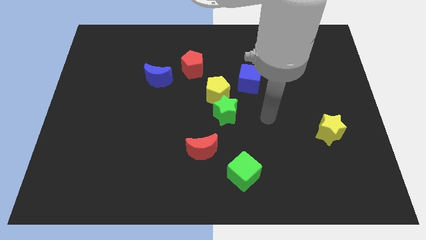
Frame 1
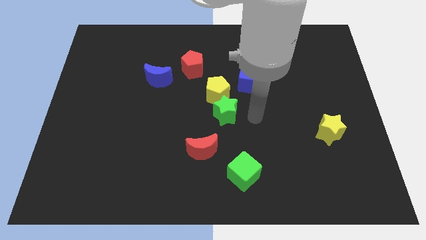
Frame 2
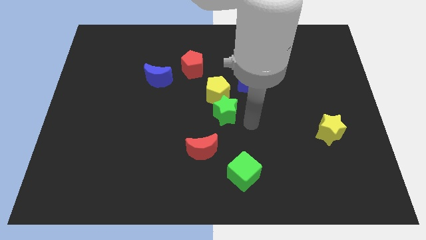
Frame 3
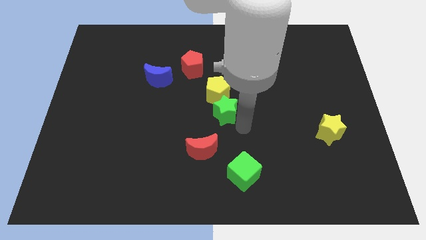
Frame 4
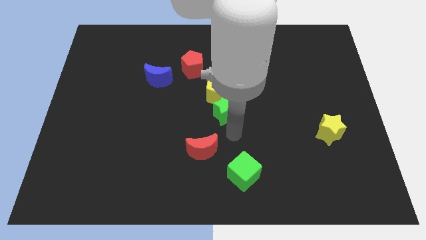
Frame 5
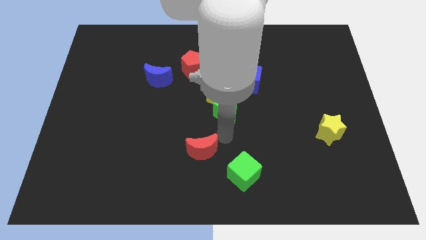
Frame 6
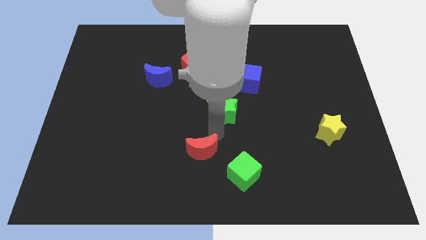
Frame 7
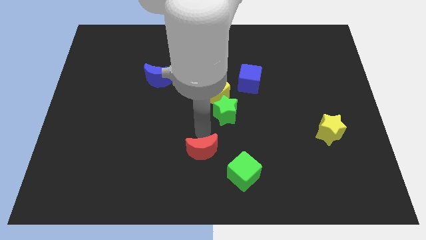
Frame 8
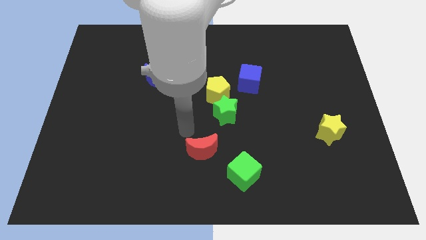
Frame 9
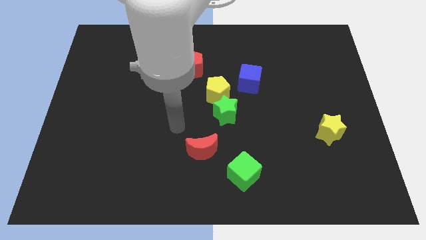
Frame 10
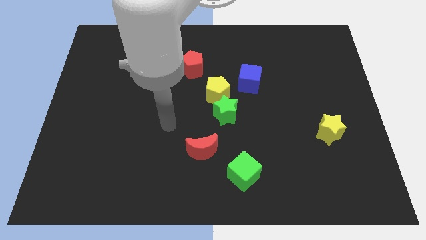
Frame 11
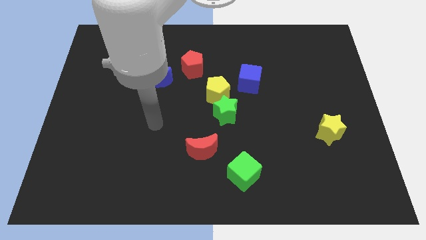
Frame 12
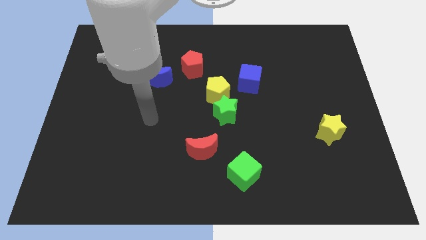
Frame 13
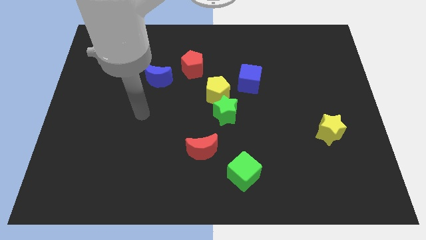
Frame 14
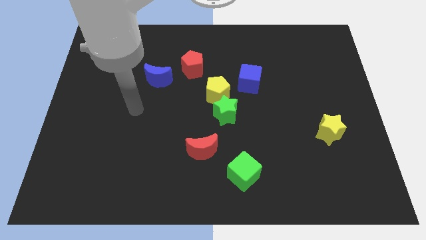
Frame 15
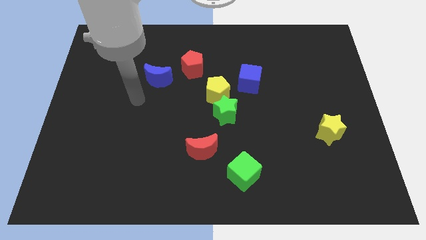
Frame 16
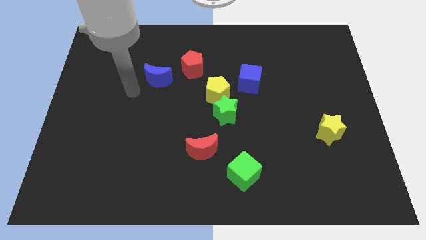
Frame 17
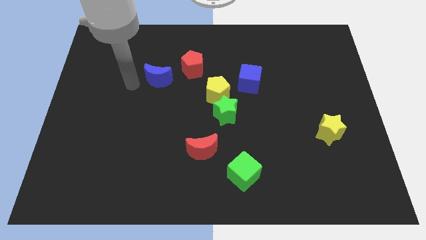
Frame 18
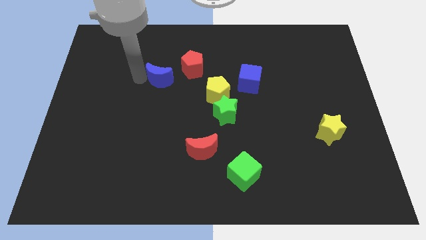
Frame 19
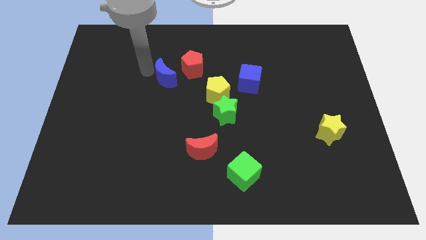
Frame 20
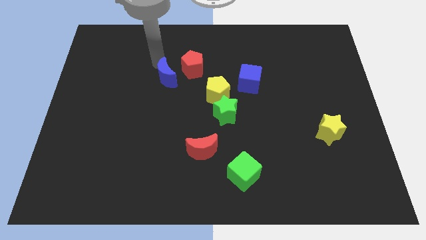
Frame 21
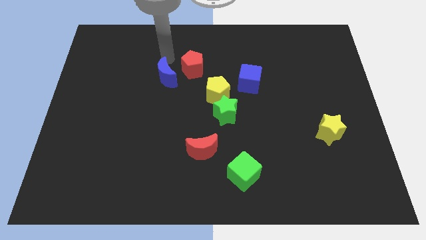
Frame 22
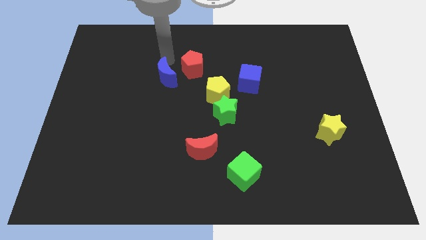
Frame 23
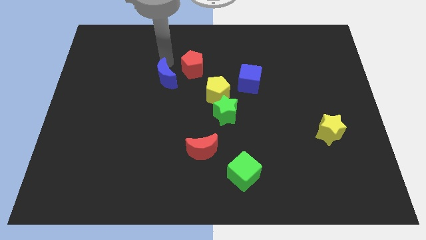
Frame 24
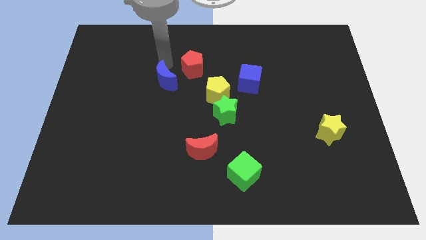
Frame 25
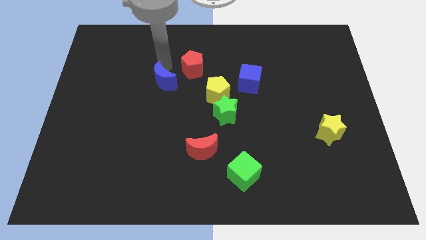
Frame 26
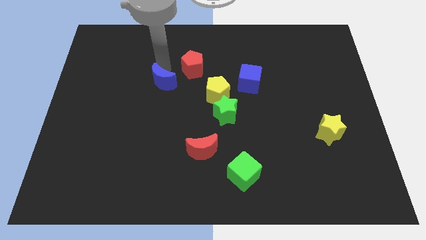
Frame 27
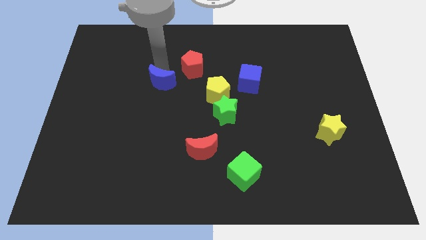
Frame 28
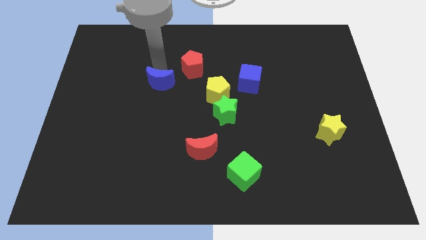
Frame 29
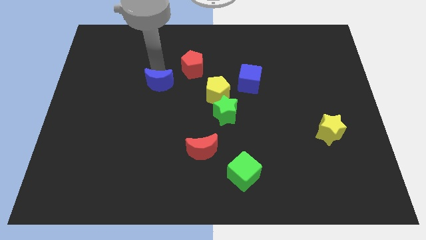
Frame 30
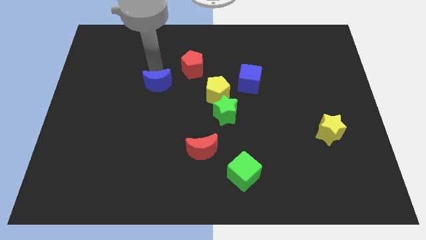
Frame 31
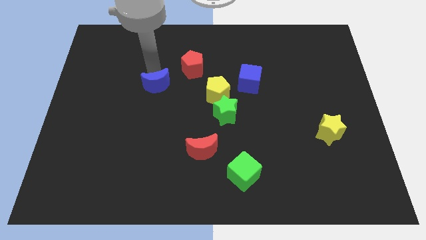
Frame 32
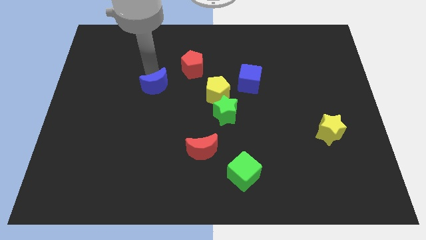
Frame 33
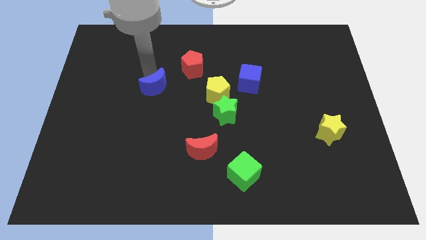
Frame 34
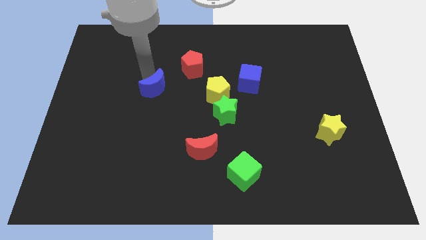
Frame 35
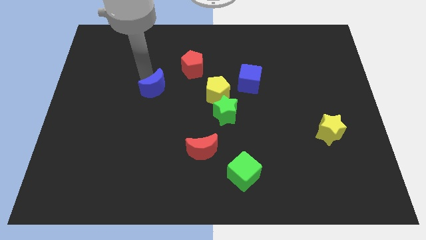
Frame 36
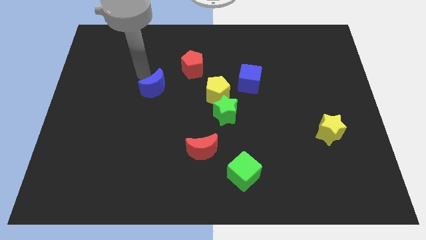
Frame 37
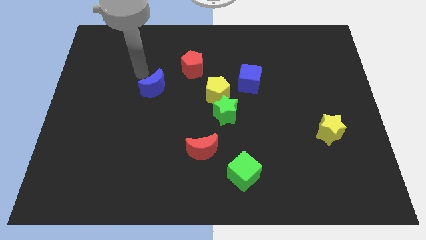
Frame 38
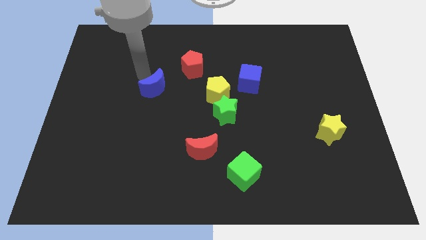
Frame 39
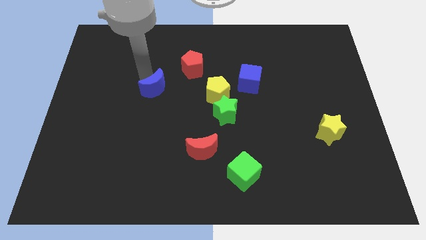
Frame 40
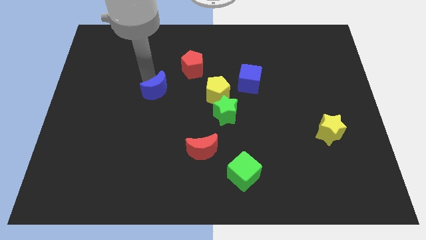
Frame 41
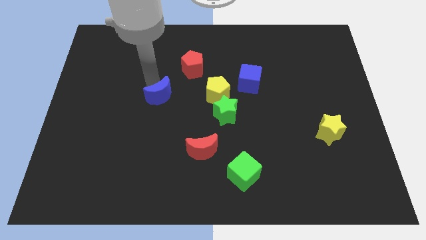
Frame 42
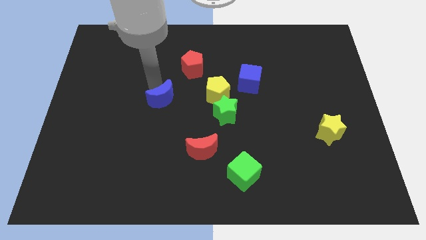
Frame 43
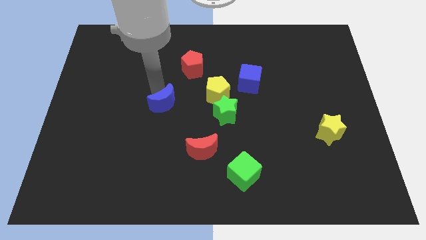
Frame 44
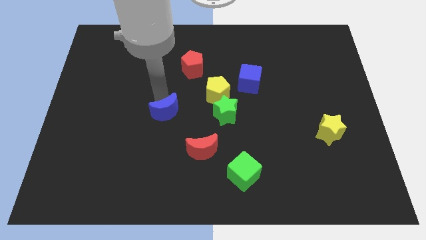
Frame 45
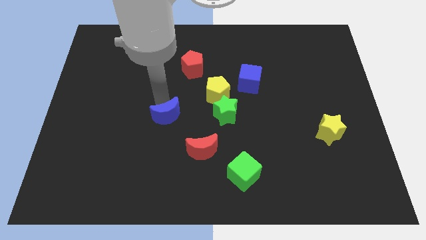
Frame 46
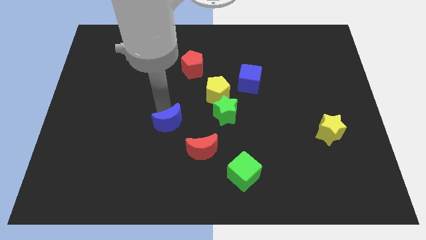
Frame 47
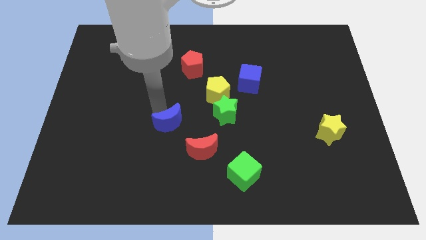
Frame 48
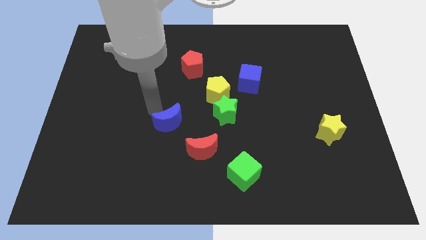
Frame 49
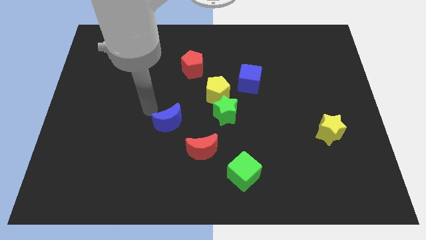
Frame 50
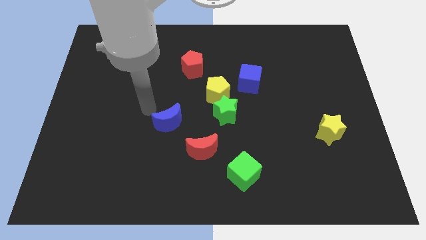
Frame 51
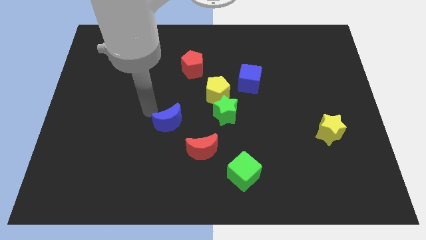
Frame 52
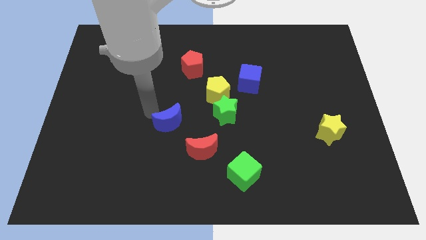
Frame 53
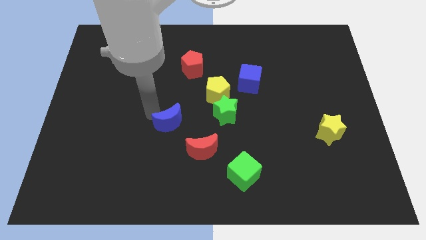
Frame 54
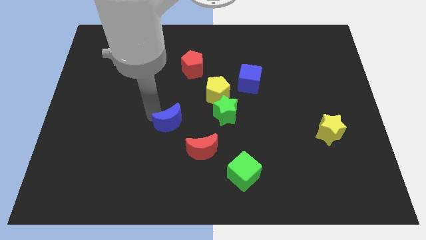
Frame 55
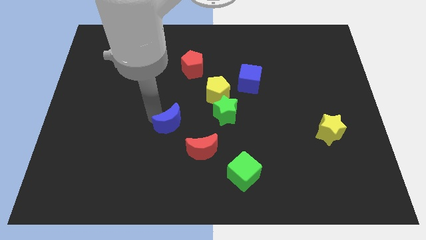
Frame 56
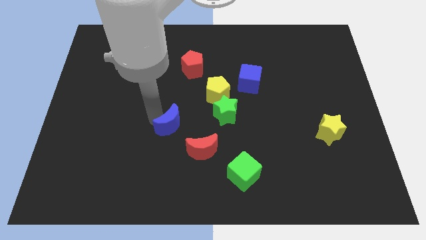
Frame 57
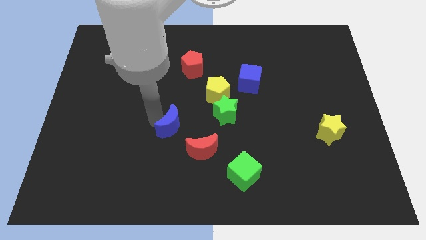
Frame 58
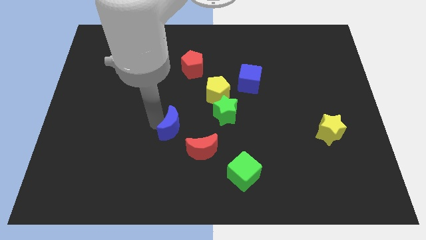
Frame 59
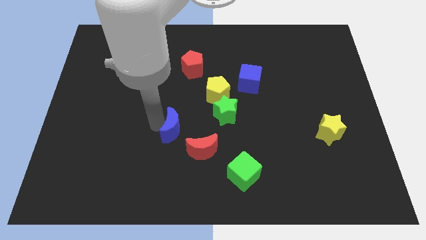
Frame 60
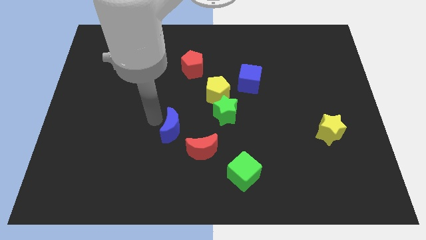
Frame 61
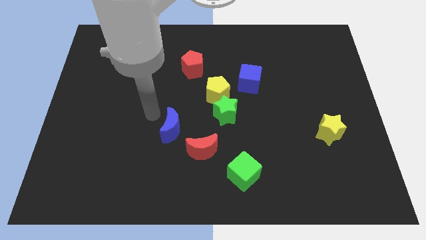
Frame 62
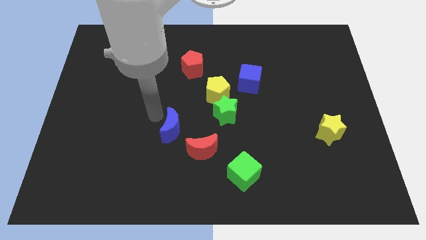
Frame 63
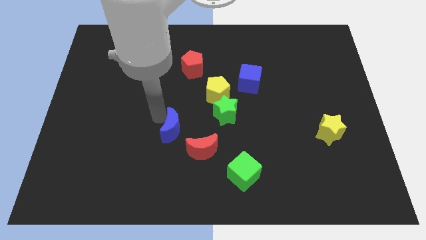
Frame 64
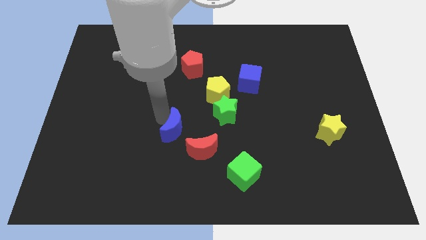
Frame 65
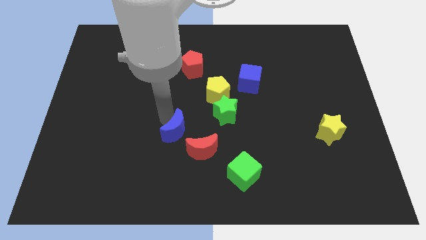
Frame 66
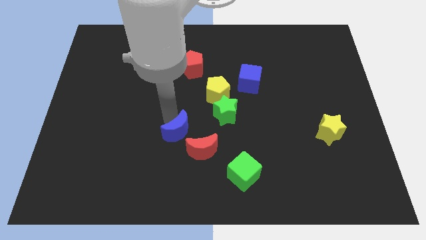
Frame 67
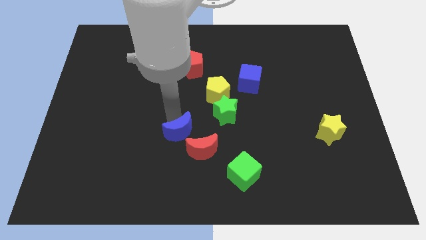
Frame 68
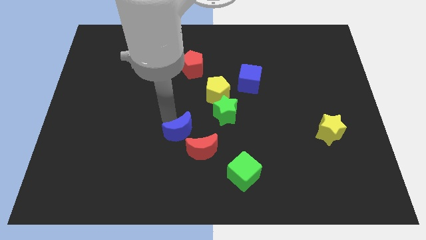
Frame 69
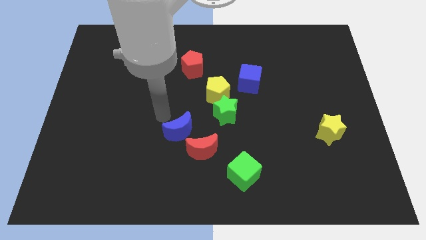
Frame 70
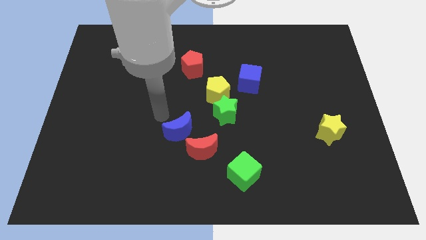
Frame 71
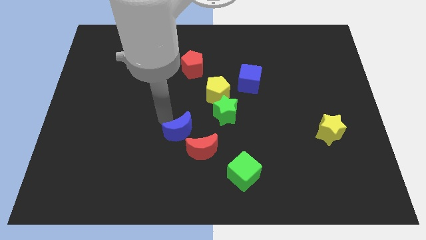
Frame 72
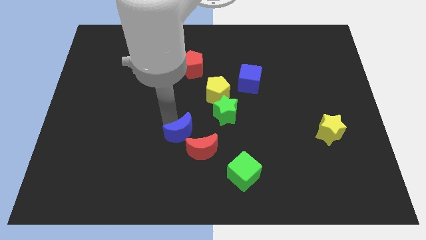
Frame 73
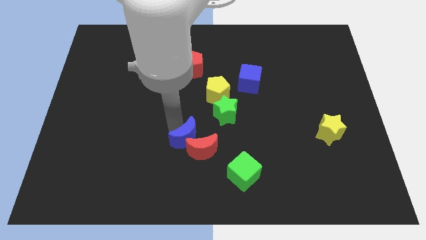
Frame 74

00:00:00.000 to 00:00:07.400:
push the blue moon towards the red moon
